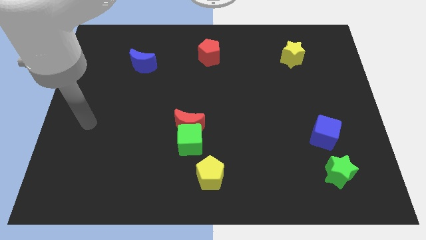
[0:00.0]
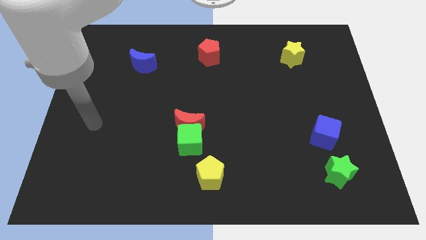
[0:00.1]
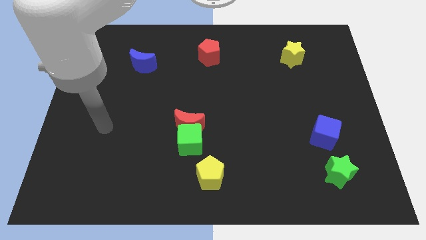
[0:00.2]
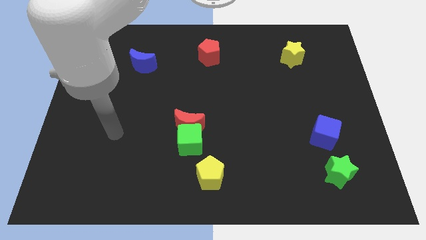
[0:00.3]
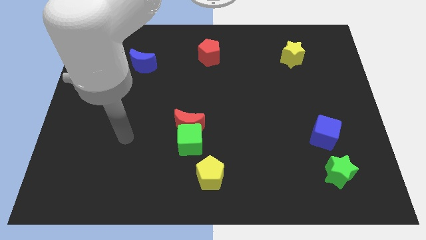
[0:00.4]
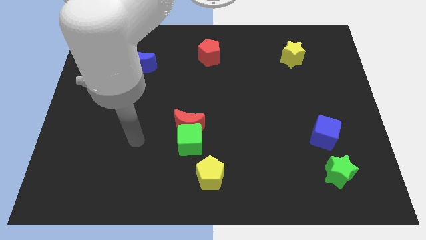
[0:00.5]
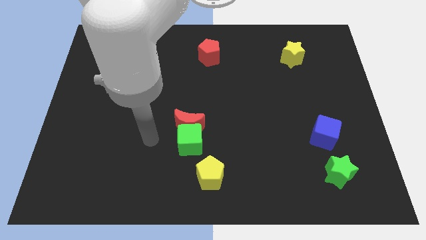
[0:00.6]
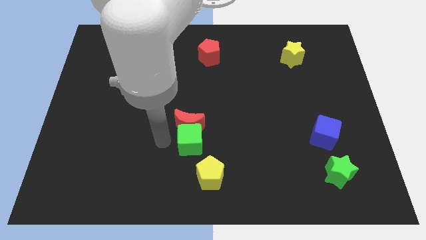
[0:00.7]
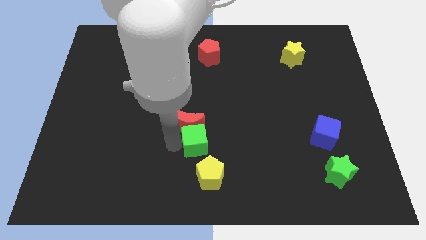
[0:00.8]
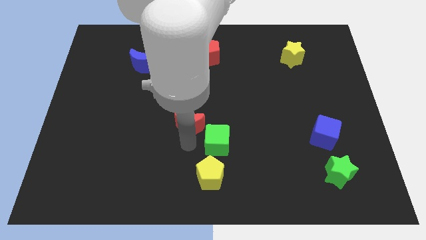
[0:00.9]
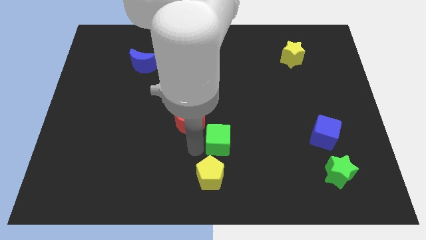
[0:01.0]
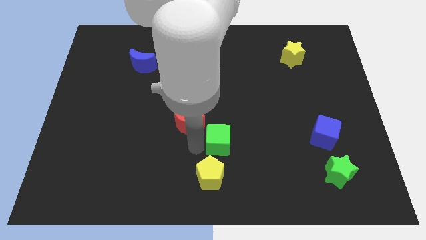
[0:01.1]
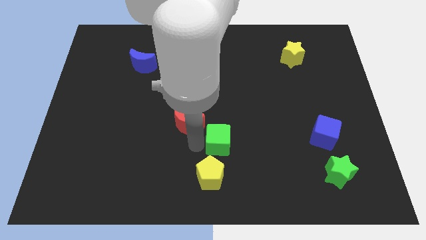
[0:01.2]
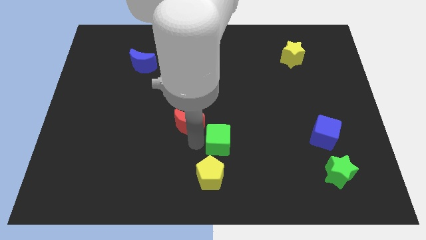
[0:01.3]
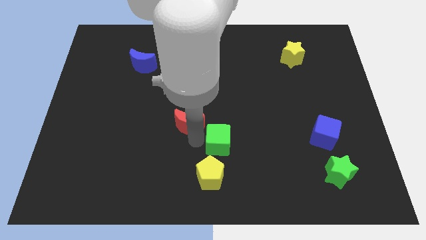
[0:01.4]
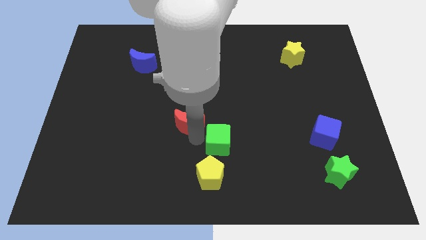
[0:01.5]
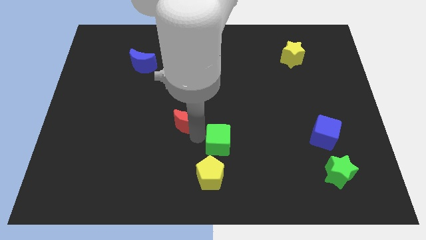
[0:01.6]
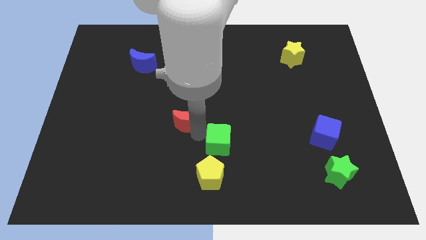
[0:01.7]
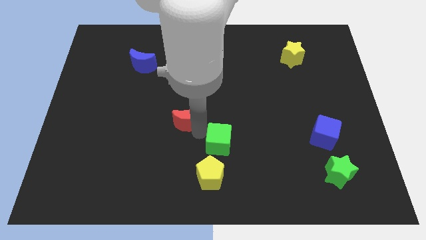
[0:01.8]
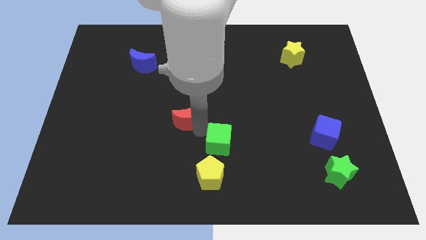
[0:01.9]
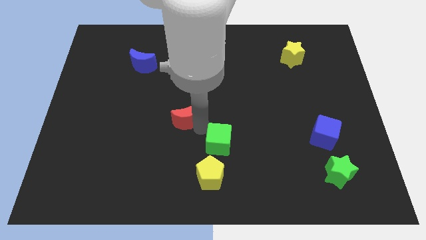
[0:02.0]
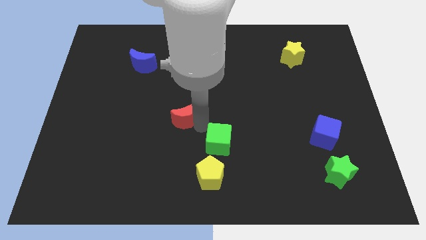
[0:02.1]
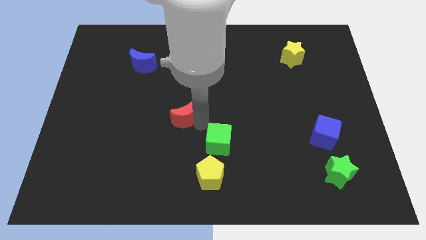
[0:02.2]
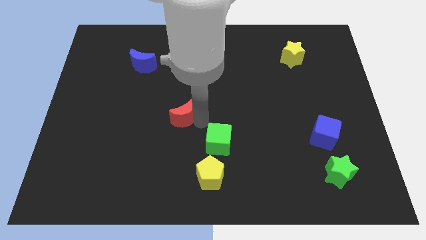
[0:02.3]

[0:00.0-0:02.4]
pull the red moon apart from the green cube

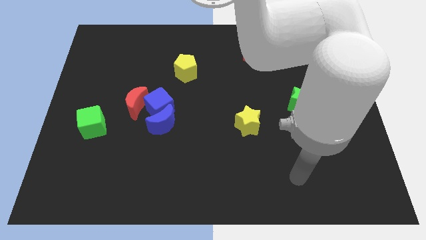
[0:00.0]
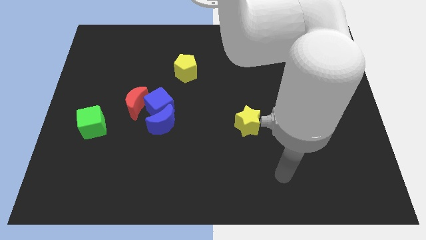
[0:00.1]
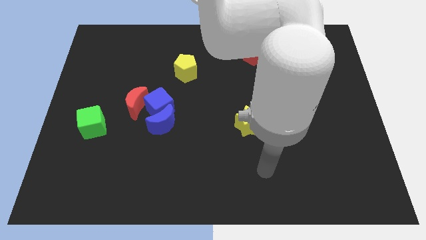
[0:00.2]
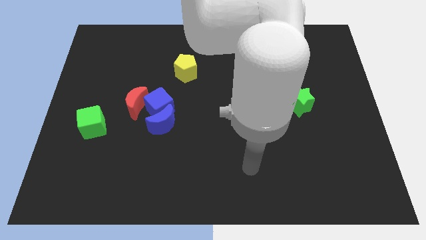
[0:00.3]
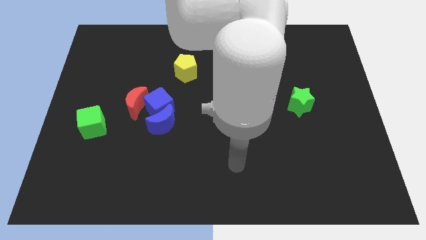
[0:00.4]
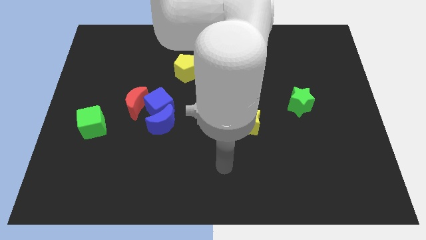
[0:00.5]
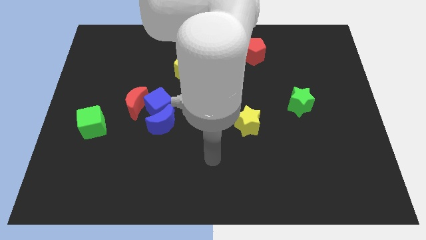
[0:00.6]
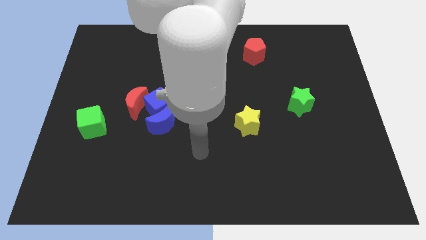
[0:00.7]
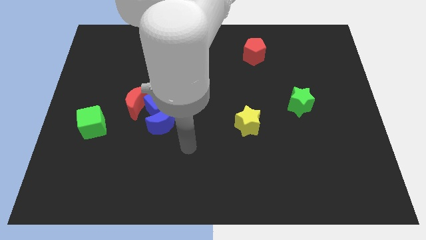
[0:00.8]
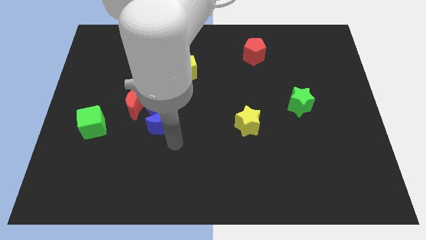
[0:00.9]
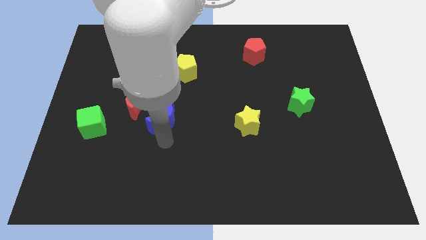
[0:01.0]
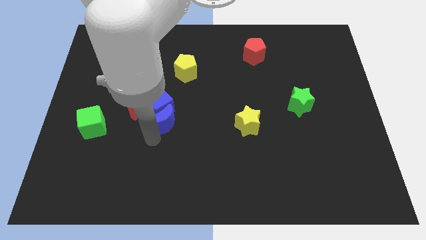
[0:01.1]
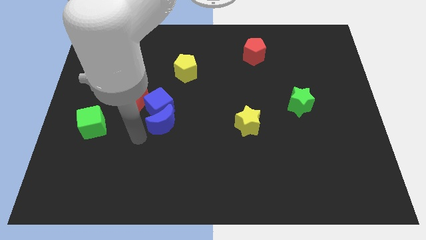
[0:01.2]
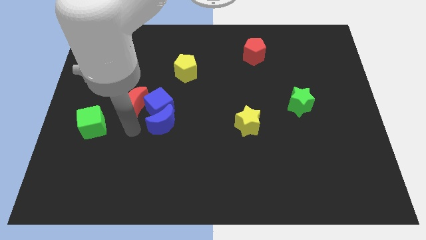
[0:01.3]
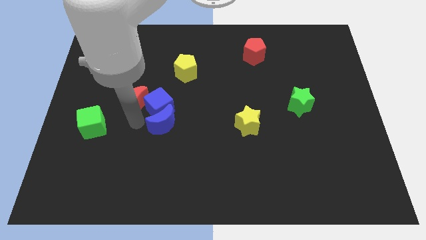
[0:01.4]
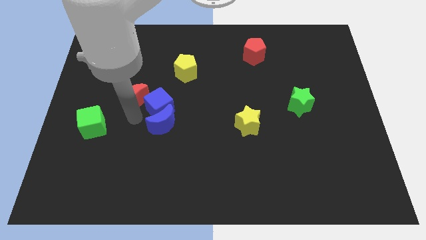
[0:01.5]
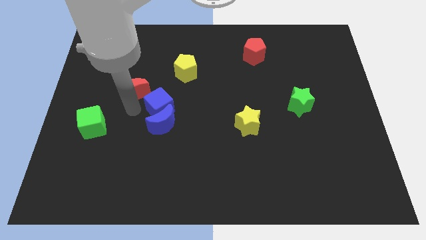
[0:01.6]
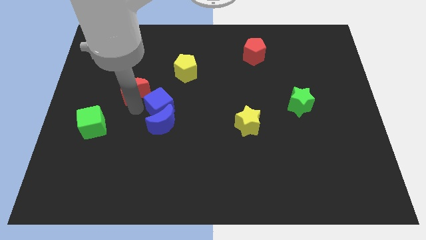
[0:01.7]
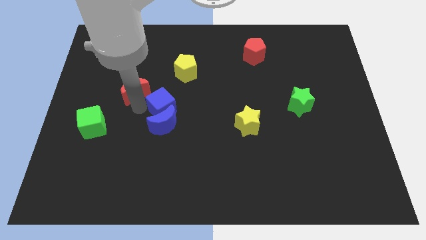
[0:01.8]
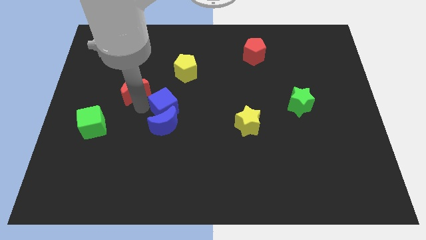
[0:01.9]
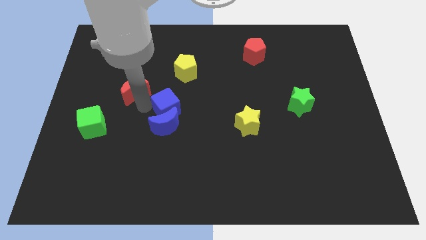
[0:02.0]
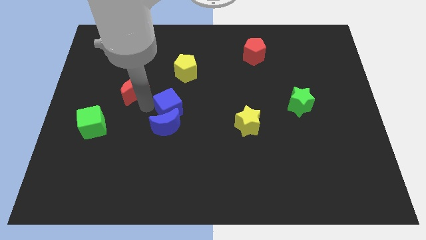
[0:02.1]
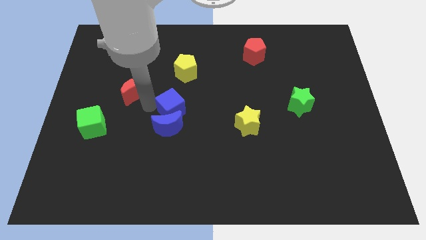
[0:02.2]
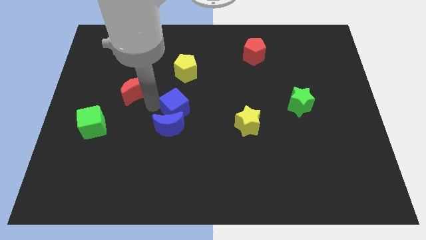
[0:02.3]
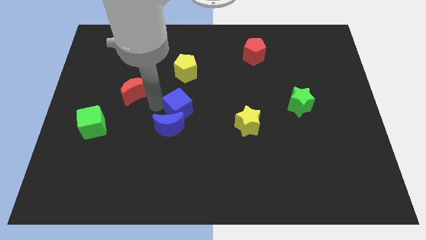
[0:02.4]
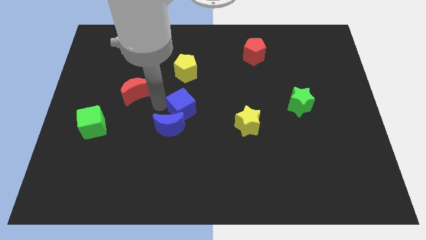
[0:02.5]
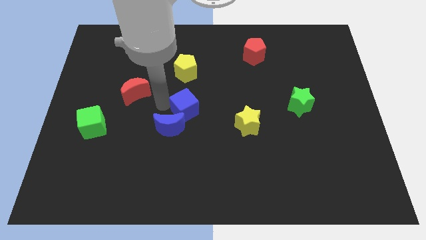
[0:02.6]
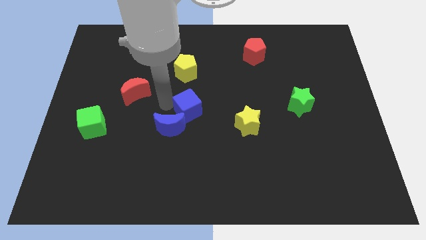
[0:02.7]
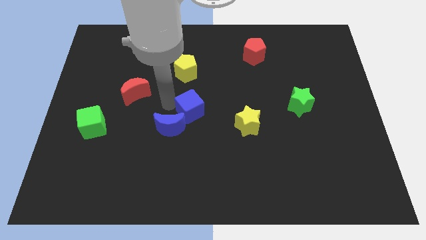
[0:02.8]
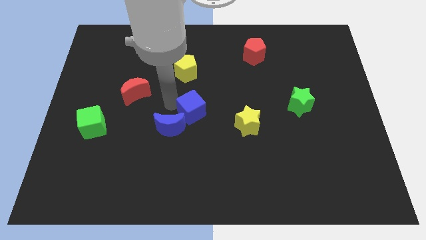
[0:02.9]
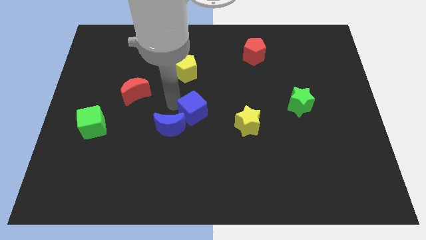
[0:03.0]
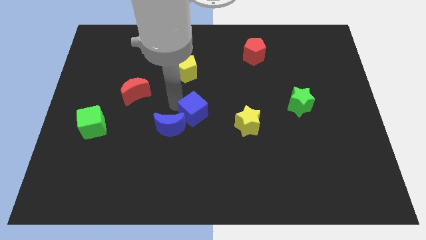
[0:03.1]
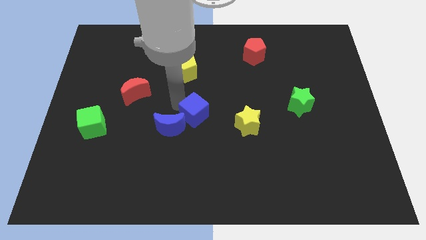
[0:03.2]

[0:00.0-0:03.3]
move the blue cube away from the blue moon and red moon

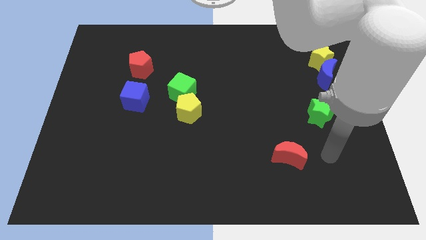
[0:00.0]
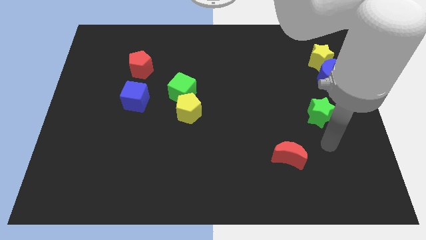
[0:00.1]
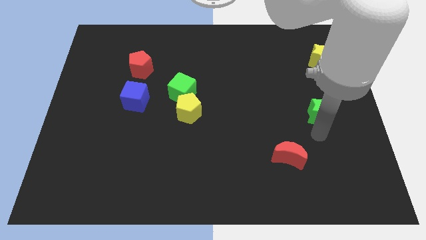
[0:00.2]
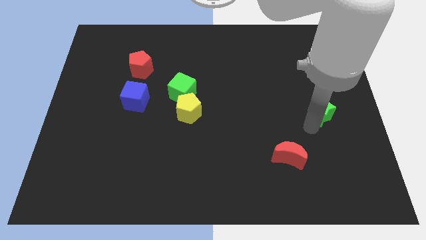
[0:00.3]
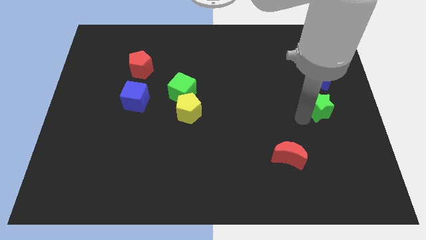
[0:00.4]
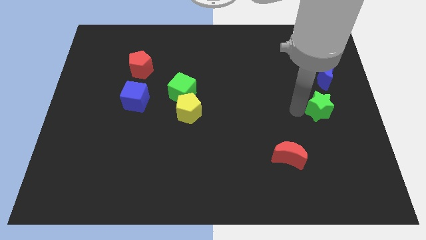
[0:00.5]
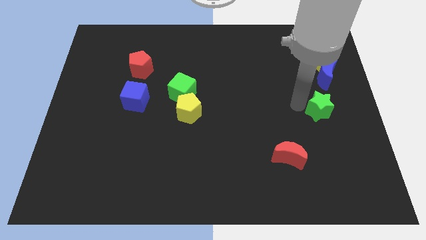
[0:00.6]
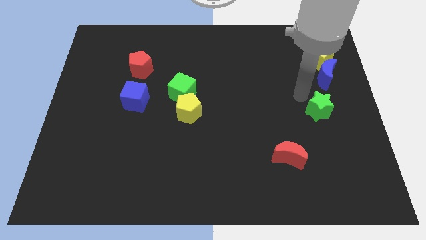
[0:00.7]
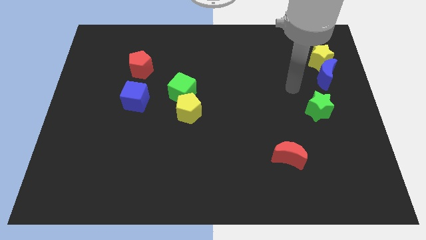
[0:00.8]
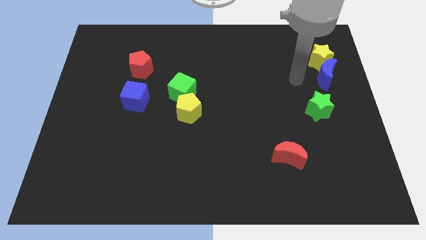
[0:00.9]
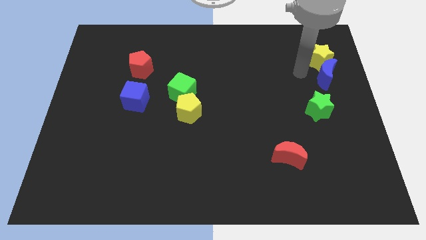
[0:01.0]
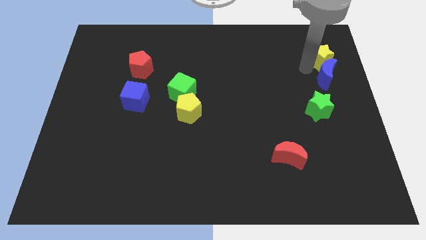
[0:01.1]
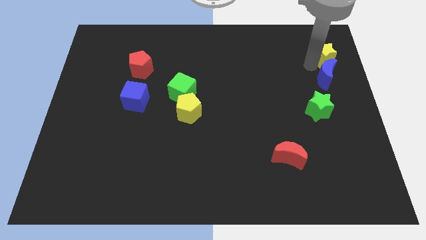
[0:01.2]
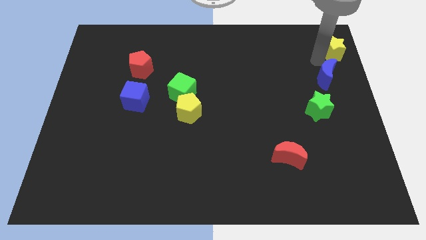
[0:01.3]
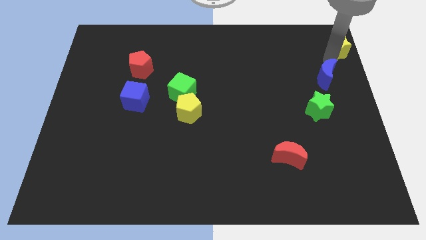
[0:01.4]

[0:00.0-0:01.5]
separate the blue moon from the yellow star

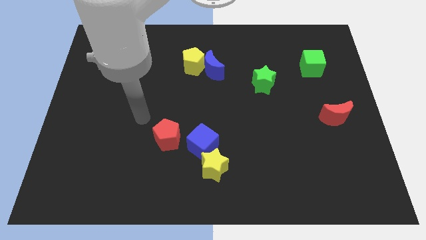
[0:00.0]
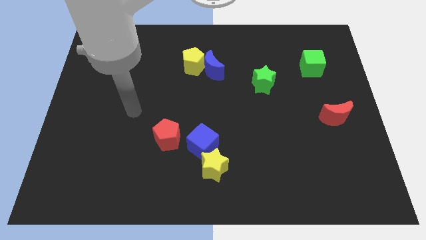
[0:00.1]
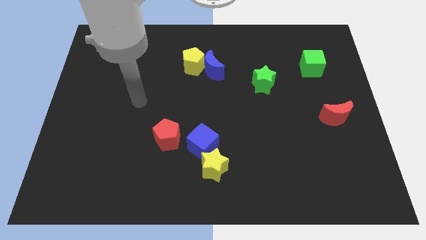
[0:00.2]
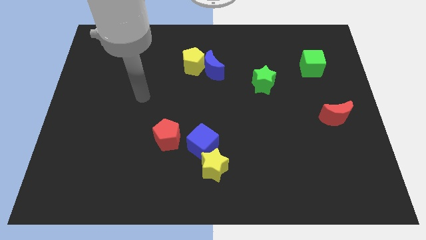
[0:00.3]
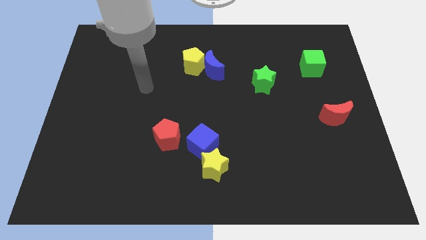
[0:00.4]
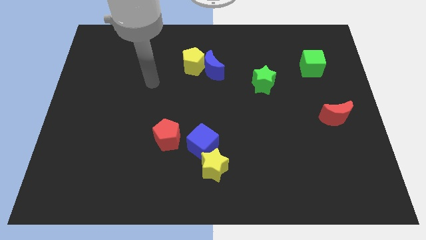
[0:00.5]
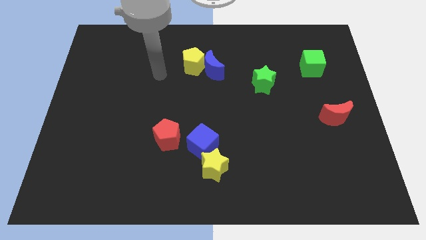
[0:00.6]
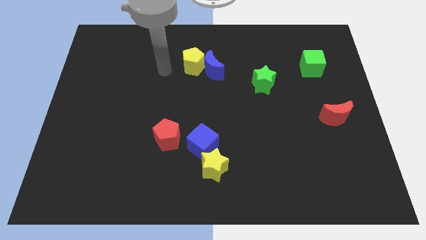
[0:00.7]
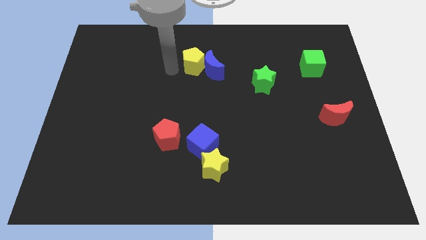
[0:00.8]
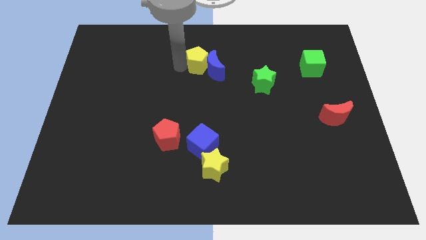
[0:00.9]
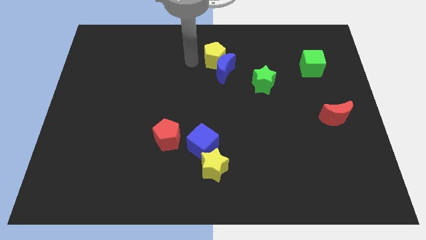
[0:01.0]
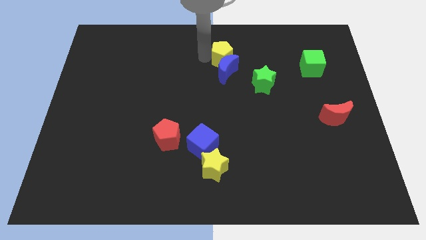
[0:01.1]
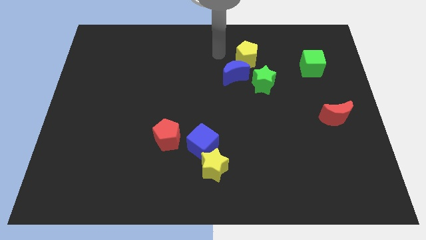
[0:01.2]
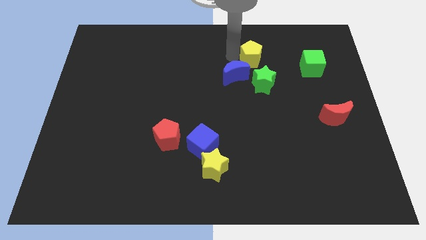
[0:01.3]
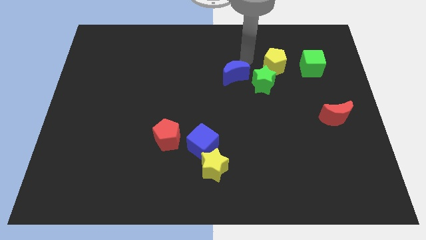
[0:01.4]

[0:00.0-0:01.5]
separate the blue moon from the yellow pentagon

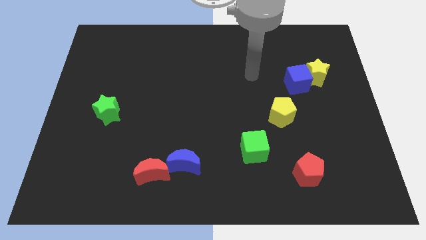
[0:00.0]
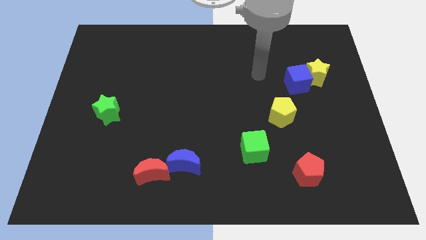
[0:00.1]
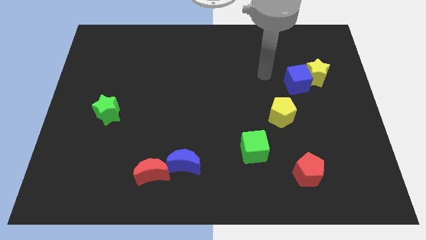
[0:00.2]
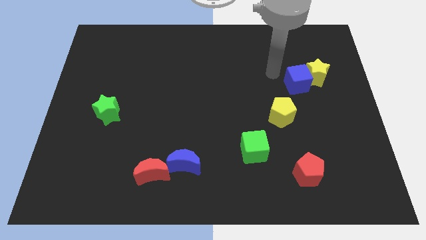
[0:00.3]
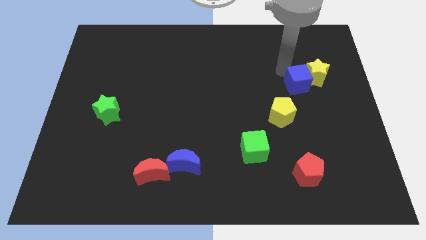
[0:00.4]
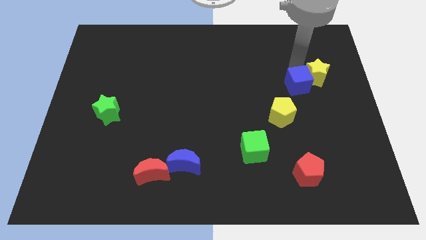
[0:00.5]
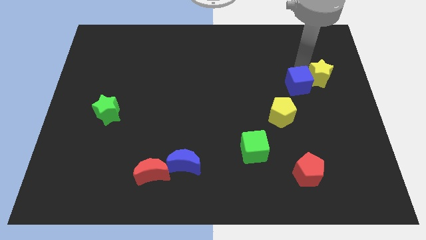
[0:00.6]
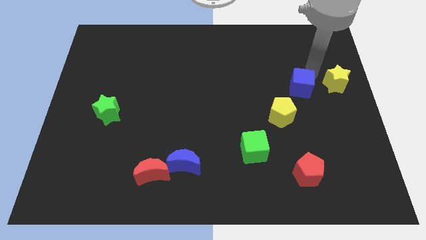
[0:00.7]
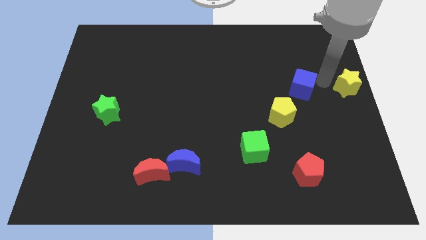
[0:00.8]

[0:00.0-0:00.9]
move the blue cube away from the yellow star
